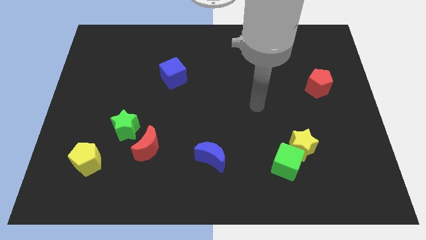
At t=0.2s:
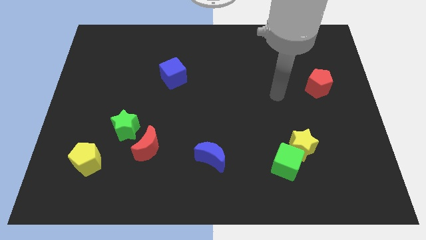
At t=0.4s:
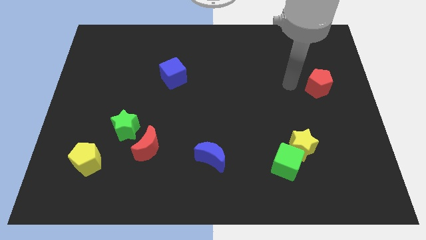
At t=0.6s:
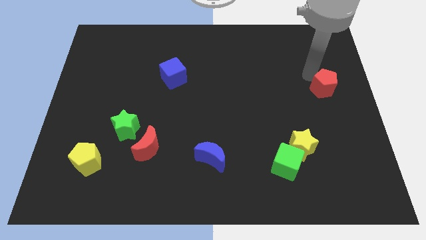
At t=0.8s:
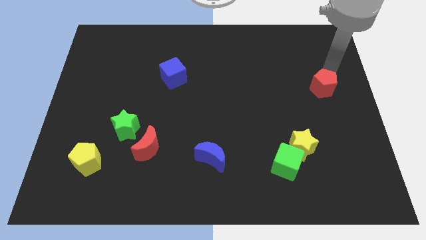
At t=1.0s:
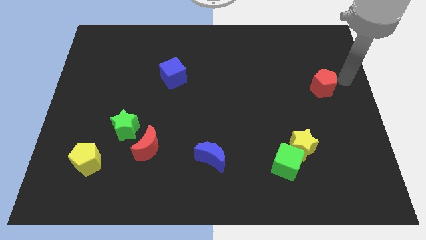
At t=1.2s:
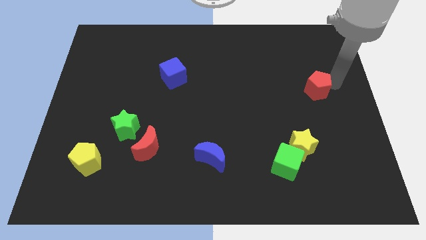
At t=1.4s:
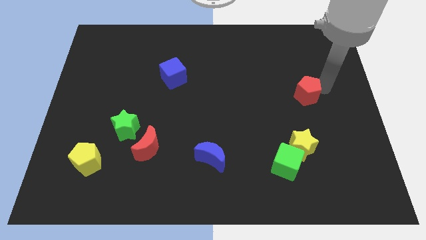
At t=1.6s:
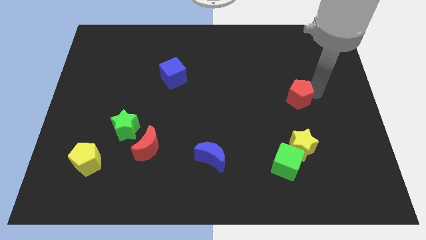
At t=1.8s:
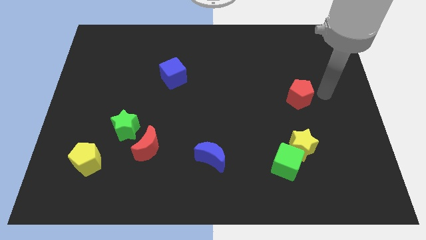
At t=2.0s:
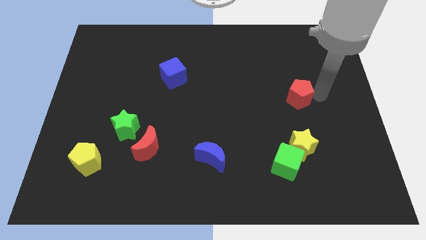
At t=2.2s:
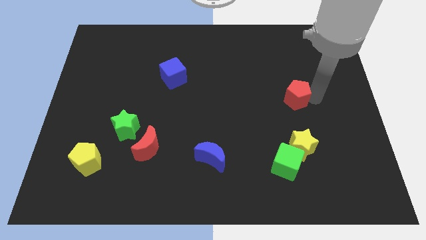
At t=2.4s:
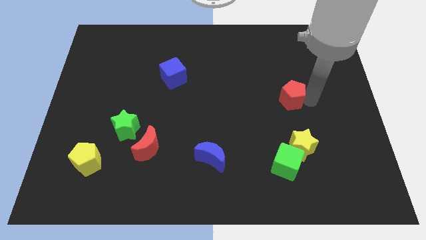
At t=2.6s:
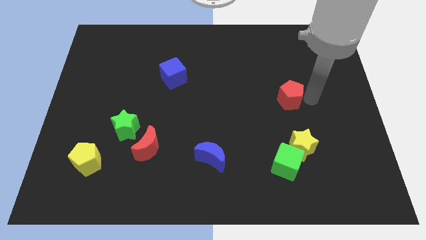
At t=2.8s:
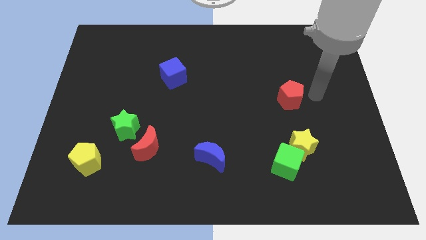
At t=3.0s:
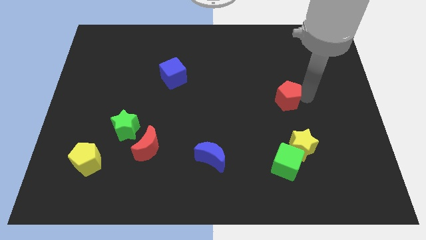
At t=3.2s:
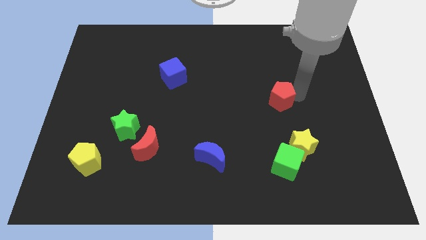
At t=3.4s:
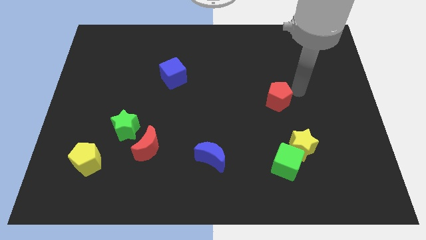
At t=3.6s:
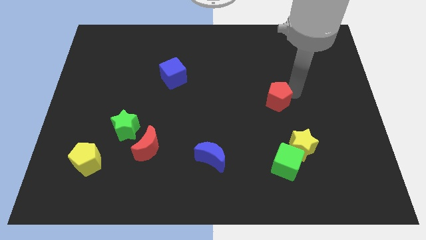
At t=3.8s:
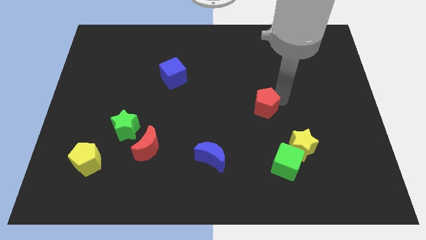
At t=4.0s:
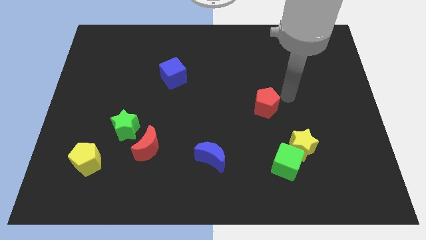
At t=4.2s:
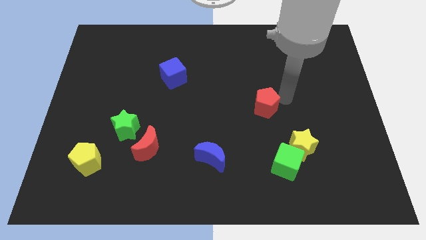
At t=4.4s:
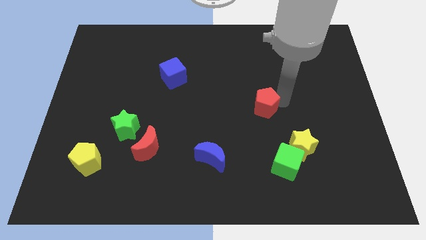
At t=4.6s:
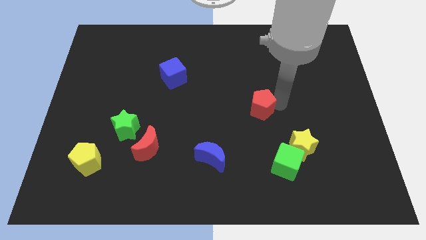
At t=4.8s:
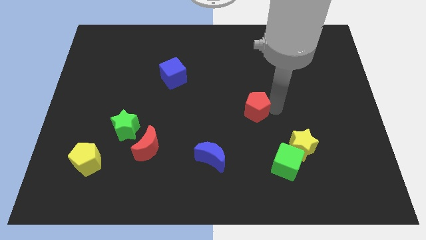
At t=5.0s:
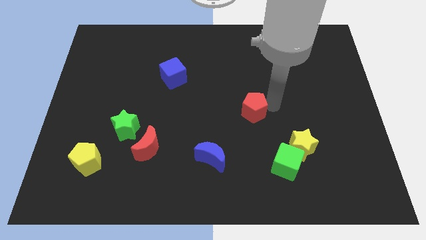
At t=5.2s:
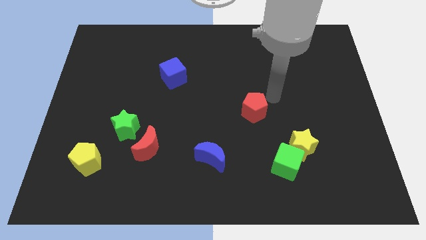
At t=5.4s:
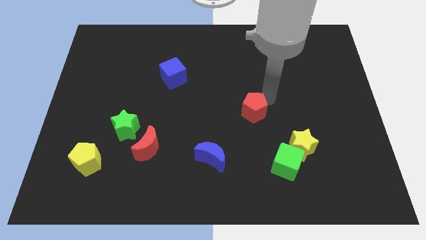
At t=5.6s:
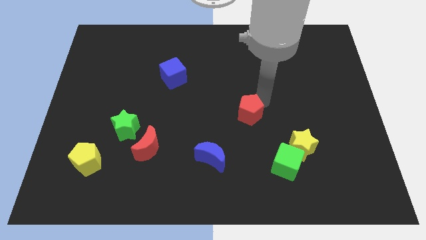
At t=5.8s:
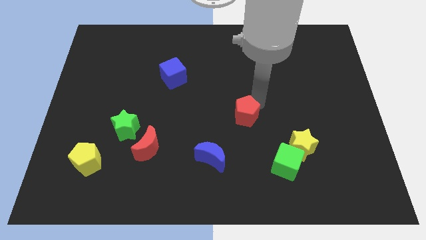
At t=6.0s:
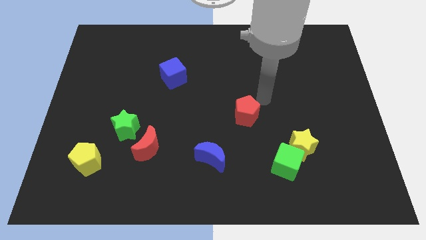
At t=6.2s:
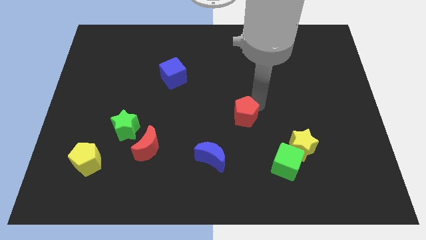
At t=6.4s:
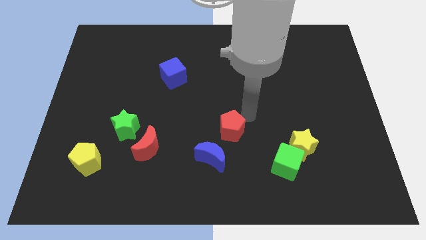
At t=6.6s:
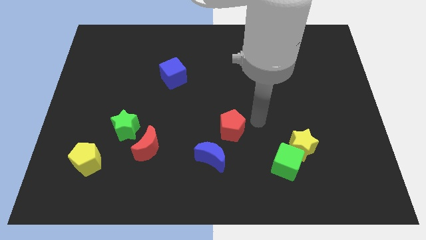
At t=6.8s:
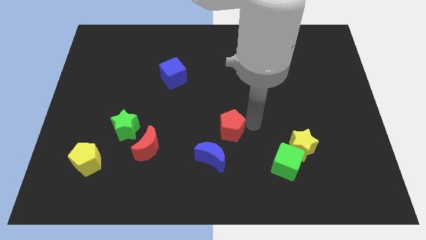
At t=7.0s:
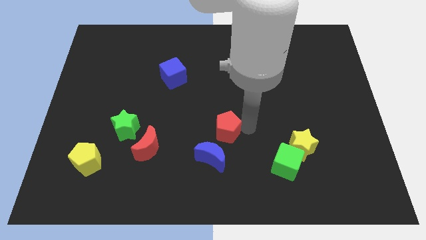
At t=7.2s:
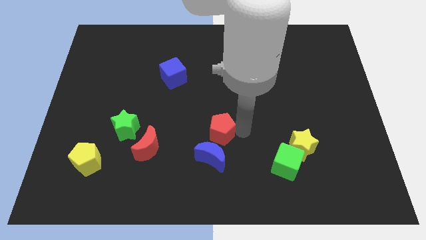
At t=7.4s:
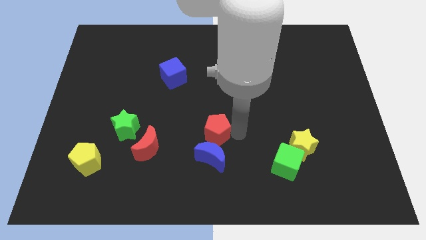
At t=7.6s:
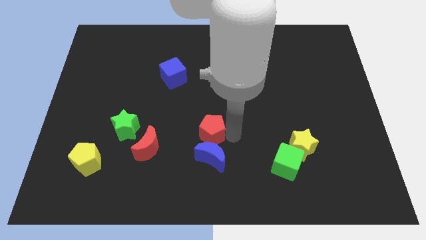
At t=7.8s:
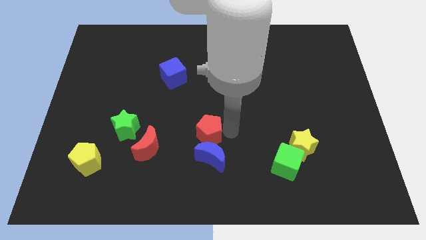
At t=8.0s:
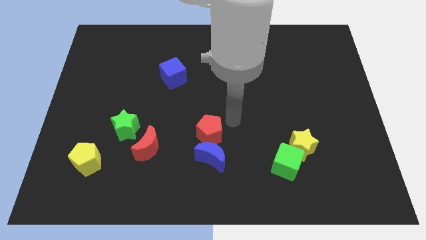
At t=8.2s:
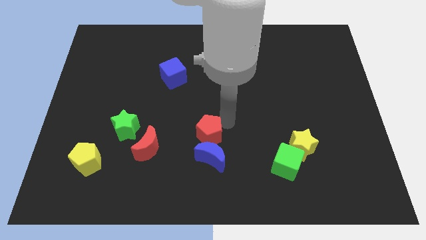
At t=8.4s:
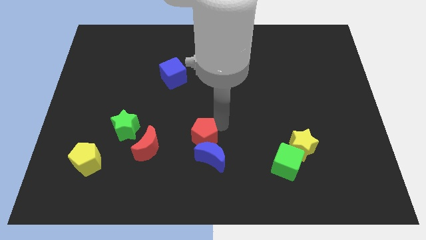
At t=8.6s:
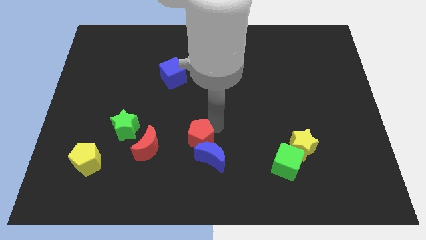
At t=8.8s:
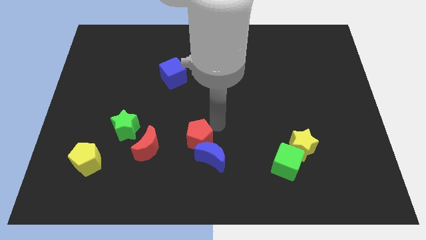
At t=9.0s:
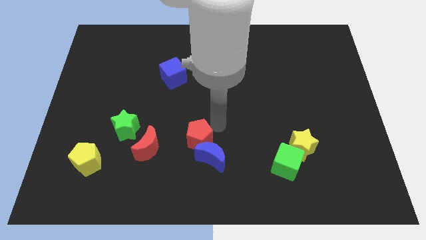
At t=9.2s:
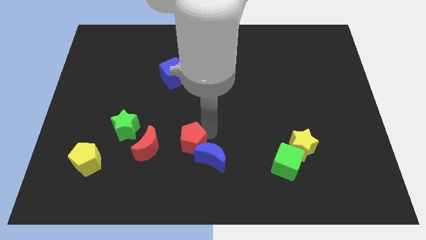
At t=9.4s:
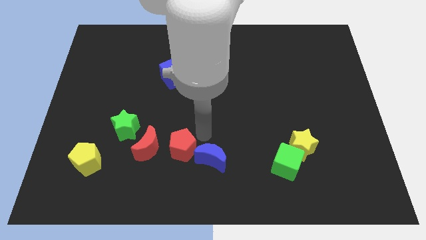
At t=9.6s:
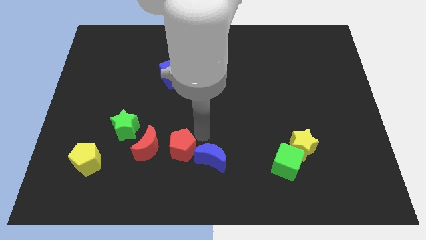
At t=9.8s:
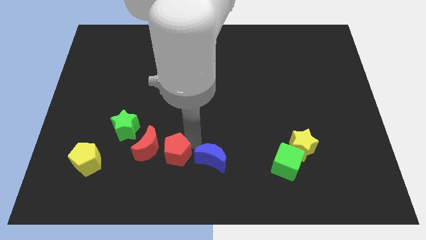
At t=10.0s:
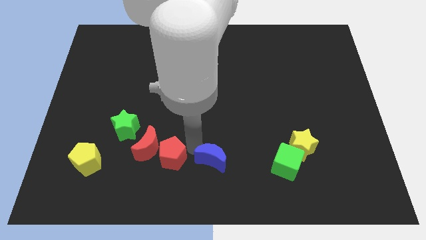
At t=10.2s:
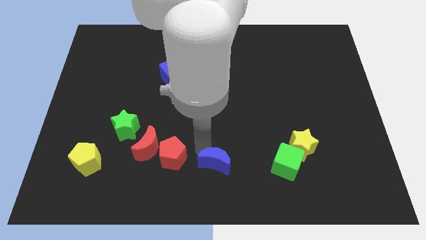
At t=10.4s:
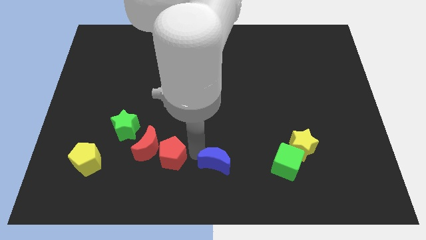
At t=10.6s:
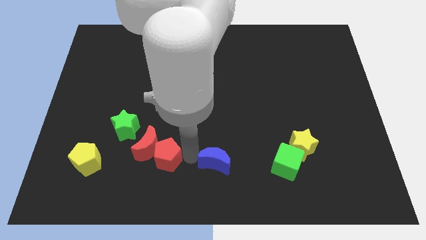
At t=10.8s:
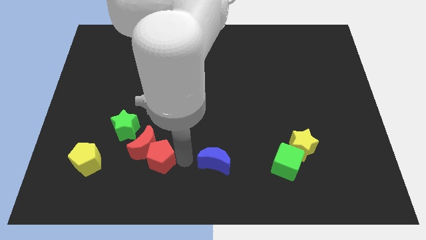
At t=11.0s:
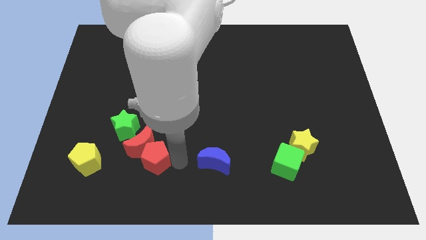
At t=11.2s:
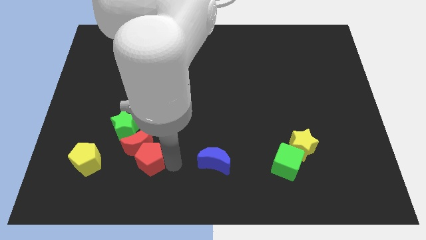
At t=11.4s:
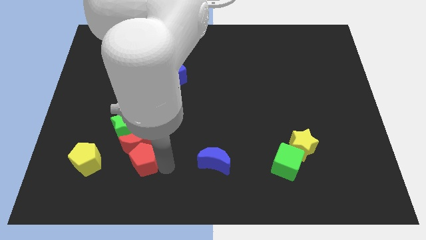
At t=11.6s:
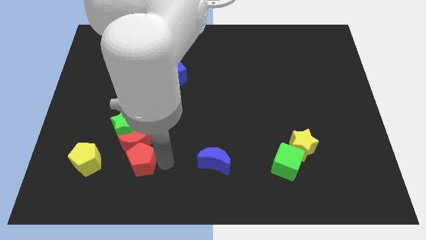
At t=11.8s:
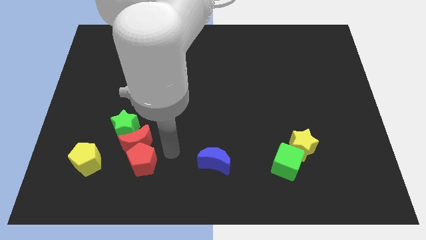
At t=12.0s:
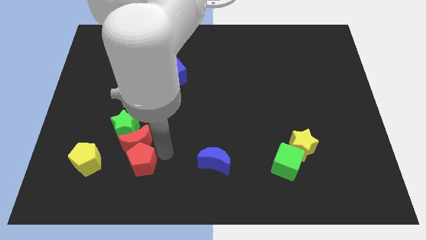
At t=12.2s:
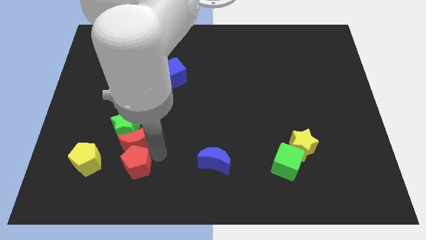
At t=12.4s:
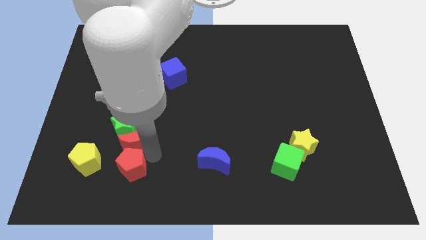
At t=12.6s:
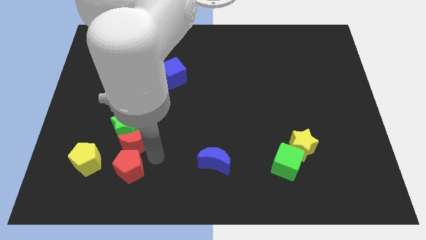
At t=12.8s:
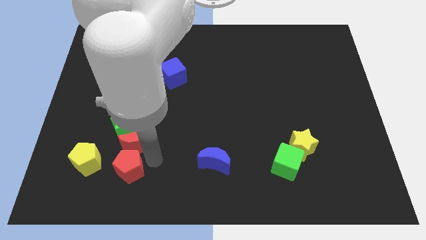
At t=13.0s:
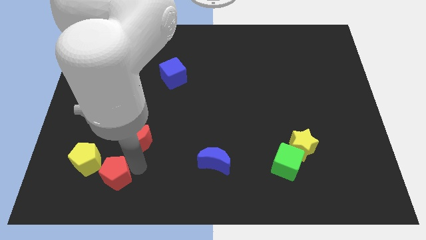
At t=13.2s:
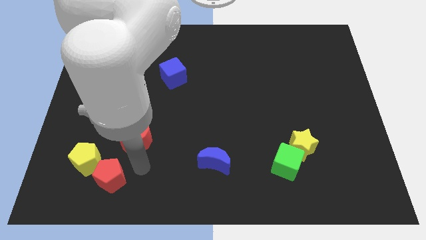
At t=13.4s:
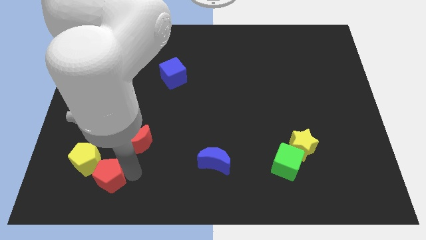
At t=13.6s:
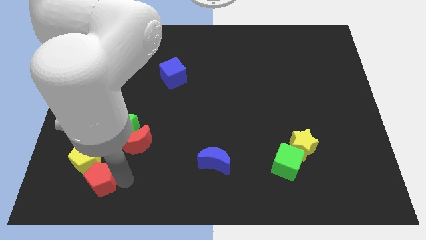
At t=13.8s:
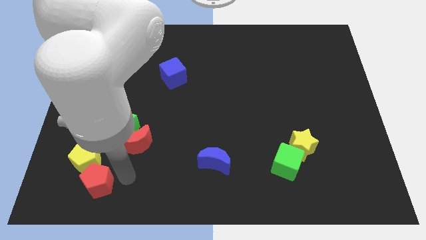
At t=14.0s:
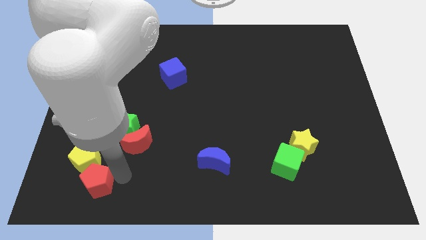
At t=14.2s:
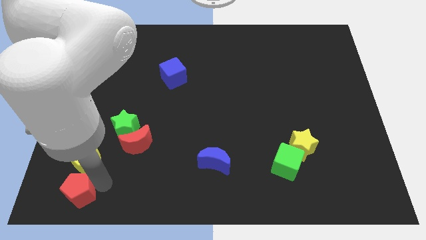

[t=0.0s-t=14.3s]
put the red pentagon to the bottom left of the board

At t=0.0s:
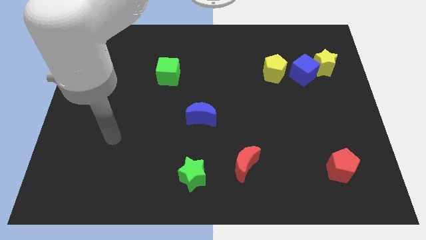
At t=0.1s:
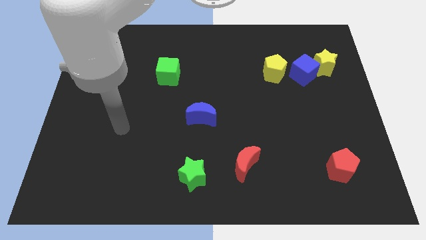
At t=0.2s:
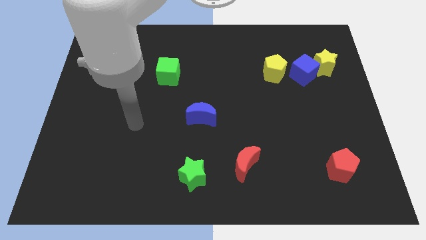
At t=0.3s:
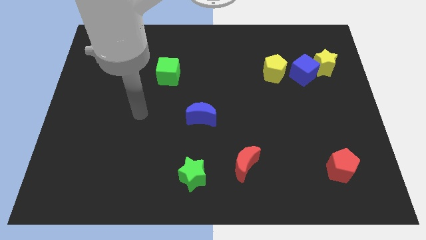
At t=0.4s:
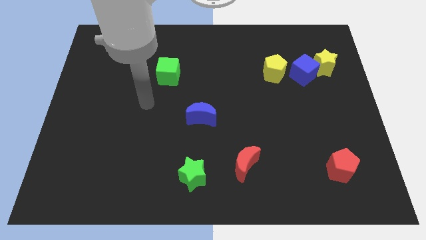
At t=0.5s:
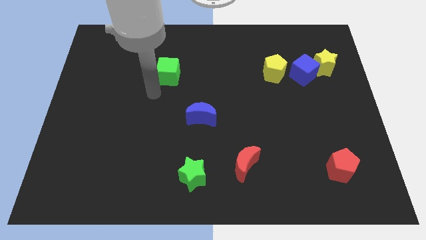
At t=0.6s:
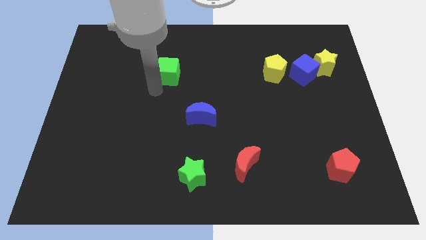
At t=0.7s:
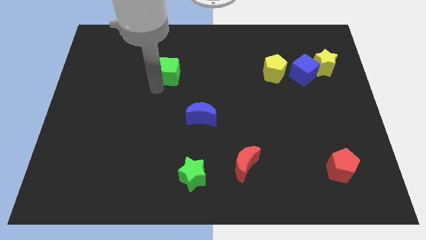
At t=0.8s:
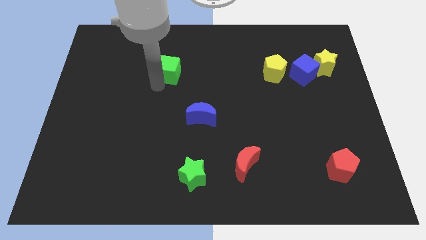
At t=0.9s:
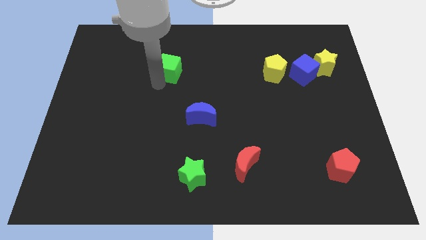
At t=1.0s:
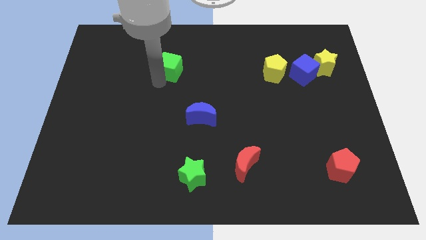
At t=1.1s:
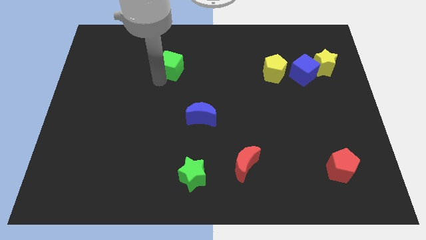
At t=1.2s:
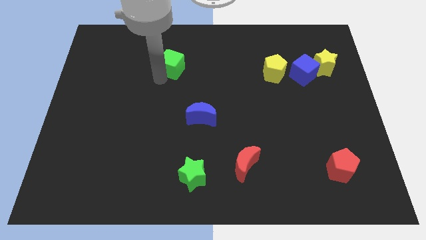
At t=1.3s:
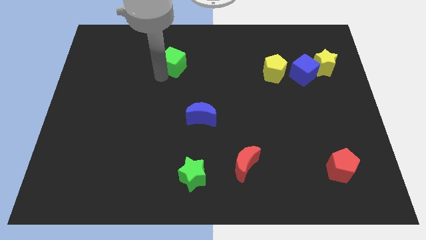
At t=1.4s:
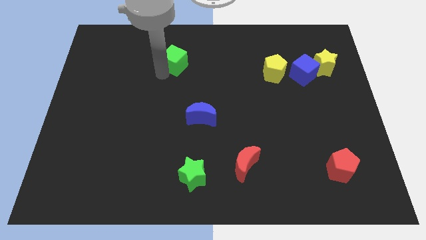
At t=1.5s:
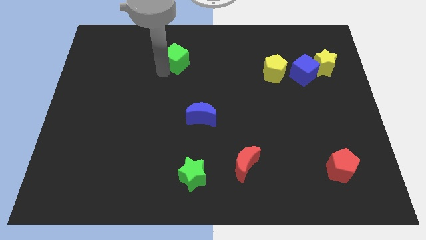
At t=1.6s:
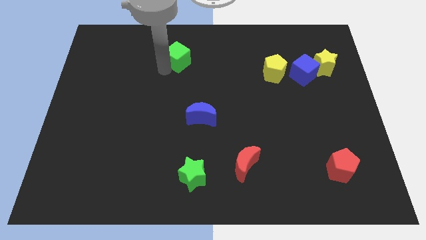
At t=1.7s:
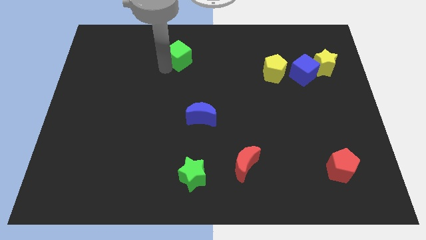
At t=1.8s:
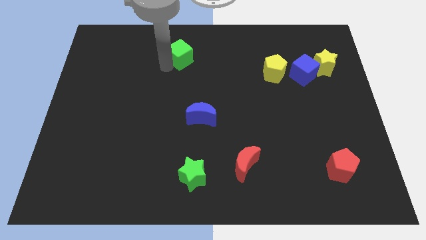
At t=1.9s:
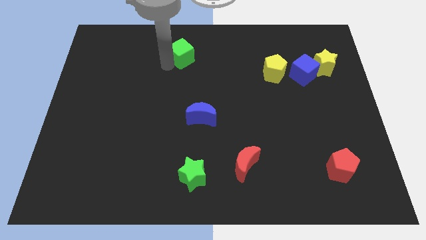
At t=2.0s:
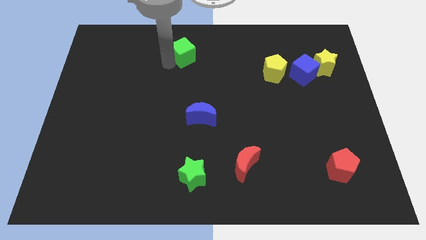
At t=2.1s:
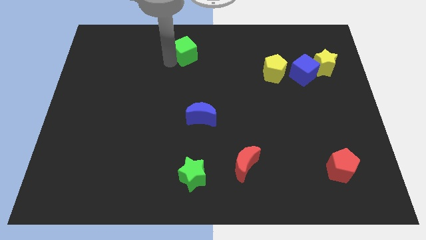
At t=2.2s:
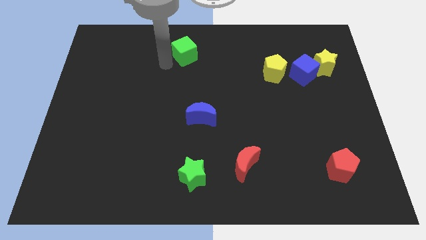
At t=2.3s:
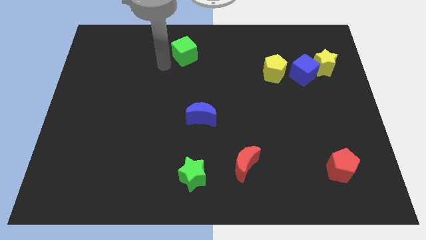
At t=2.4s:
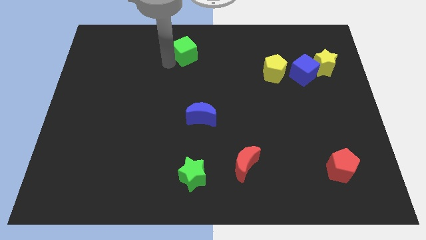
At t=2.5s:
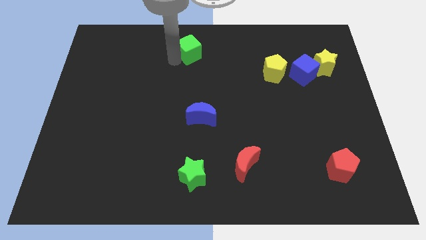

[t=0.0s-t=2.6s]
put the green cube to the top
